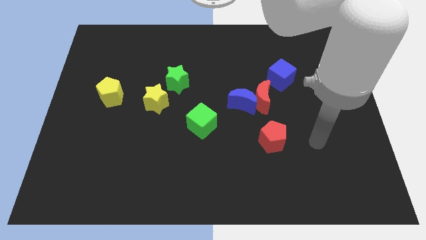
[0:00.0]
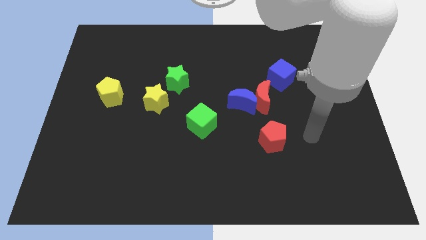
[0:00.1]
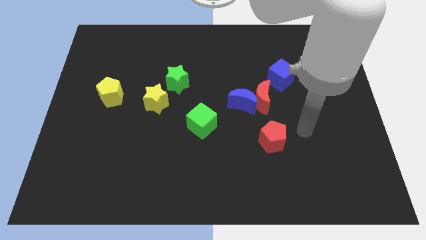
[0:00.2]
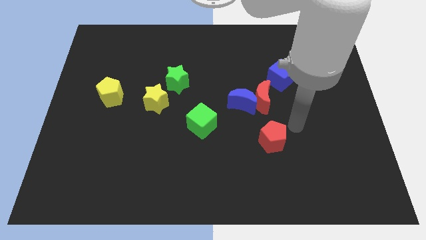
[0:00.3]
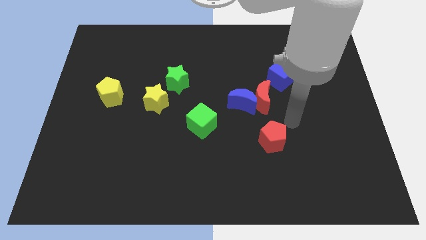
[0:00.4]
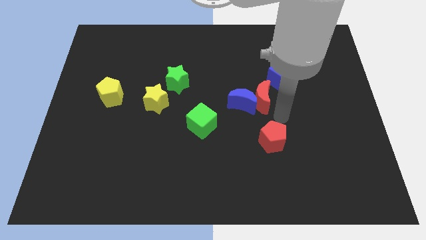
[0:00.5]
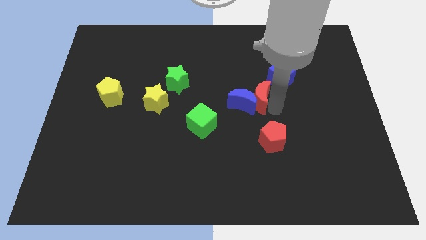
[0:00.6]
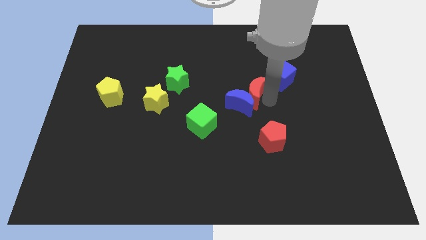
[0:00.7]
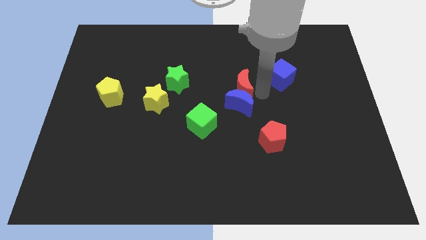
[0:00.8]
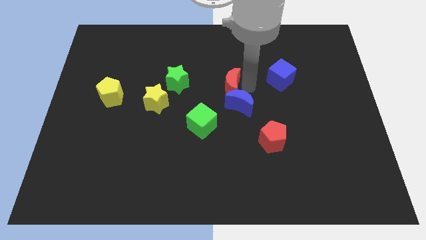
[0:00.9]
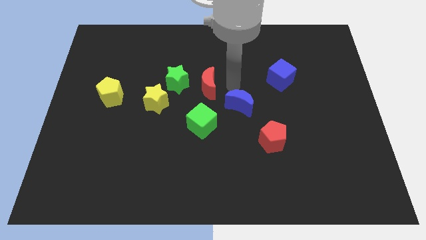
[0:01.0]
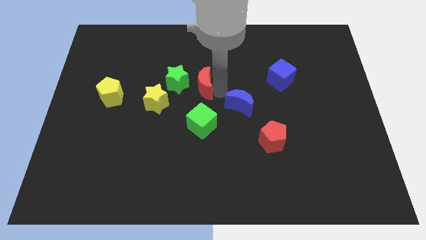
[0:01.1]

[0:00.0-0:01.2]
separate the blue moon from the red moon

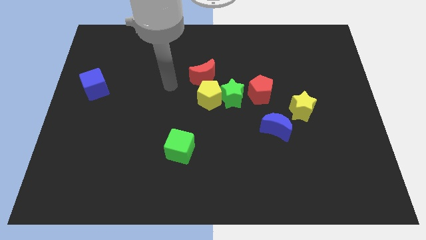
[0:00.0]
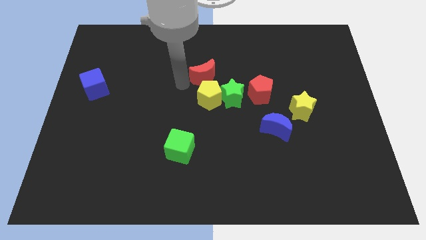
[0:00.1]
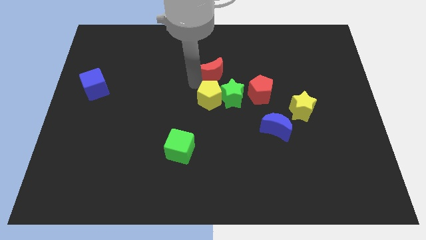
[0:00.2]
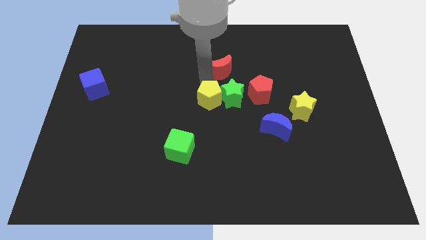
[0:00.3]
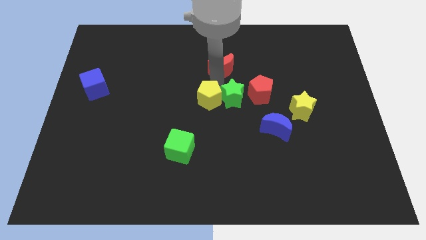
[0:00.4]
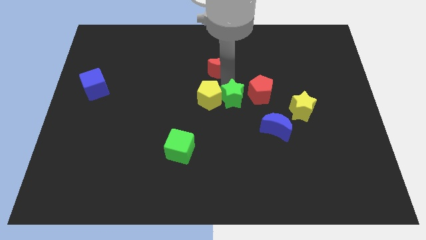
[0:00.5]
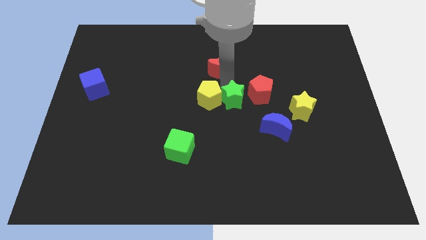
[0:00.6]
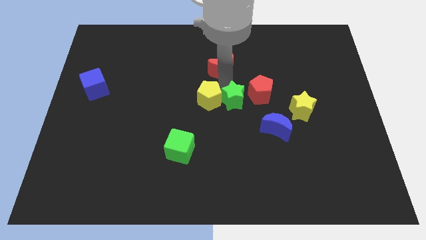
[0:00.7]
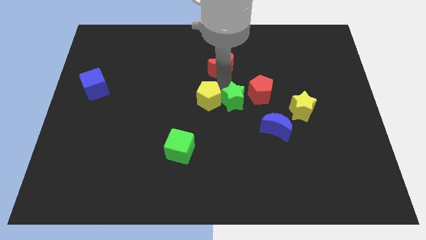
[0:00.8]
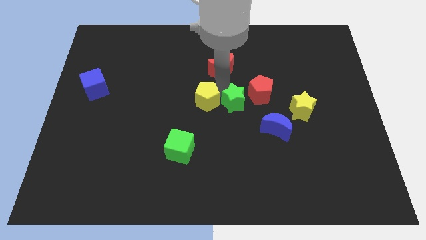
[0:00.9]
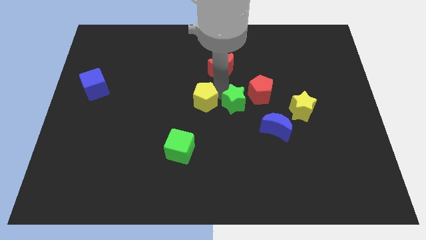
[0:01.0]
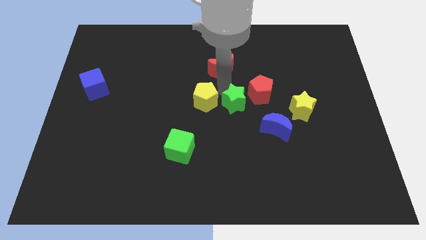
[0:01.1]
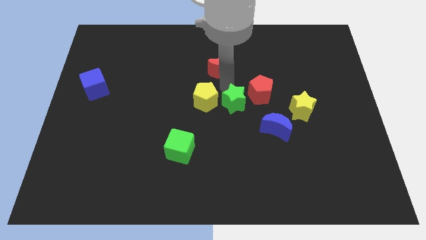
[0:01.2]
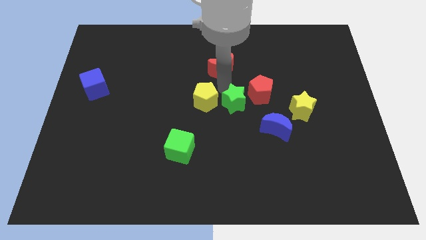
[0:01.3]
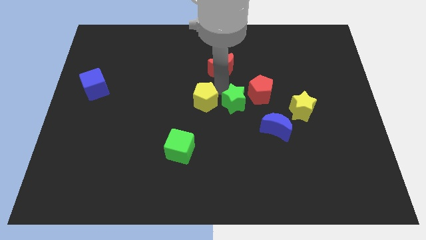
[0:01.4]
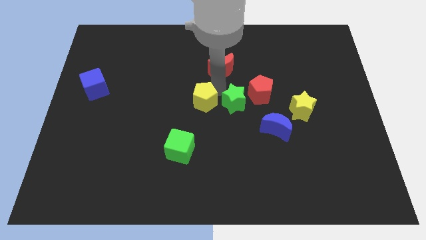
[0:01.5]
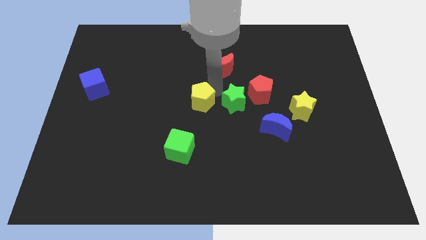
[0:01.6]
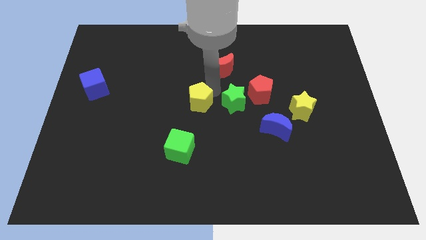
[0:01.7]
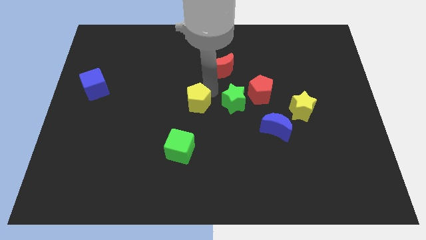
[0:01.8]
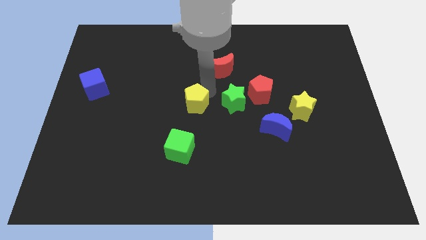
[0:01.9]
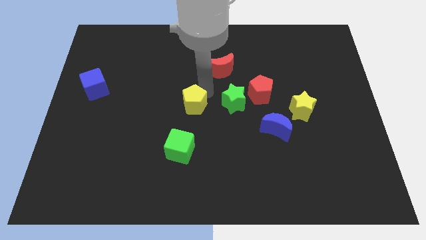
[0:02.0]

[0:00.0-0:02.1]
separate the yellow pentagon from the green star and red moon

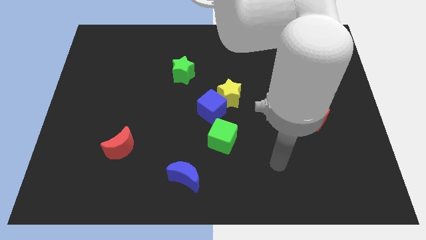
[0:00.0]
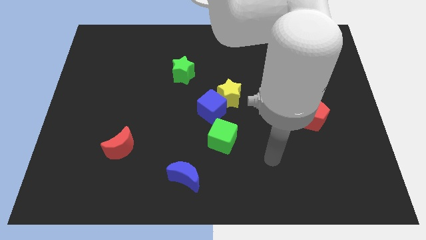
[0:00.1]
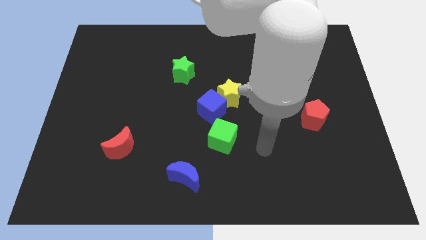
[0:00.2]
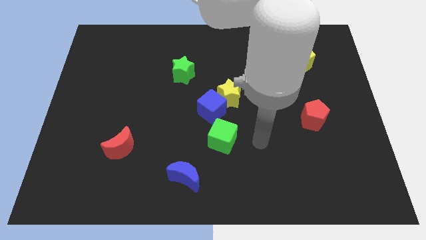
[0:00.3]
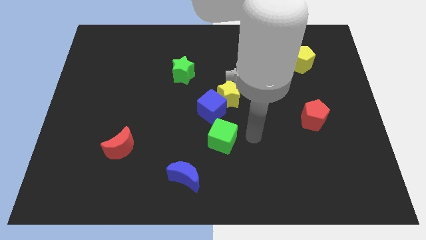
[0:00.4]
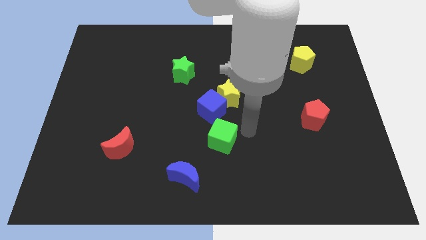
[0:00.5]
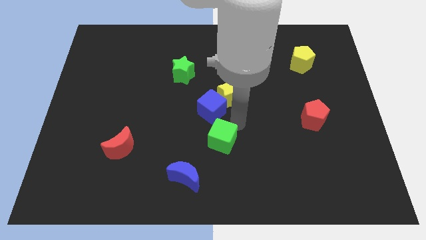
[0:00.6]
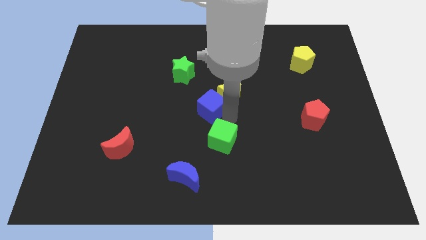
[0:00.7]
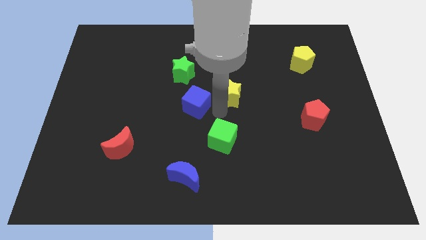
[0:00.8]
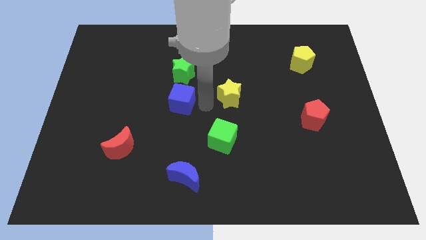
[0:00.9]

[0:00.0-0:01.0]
move the yellow star away from the blue cube

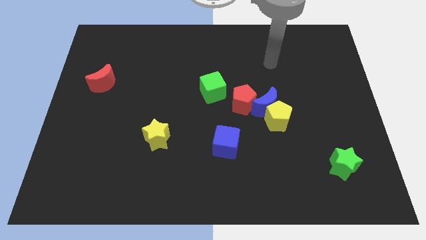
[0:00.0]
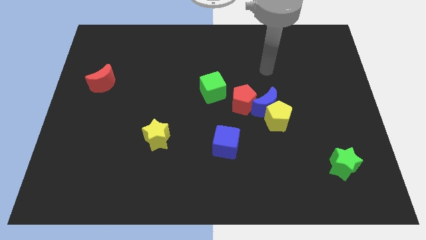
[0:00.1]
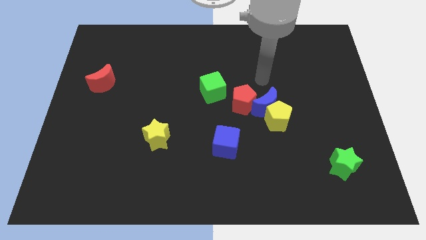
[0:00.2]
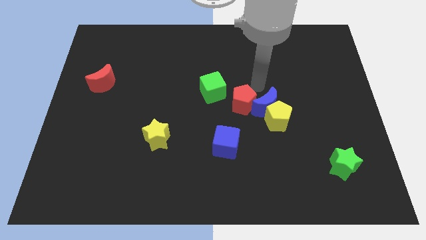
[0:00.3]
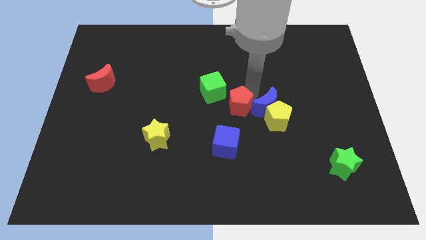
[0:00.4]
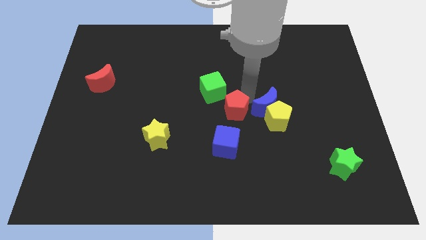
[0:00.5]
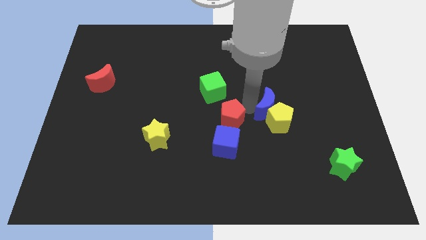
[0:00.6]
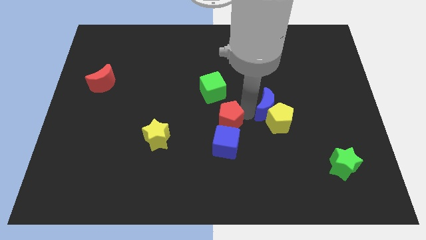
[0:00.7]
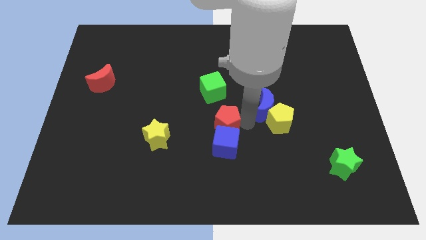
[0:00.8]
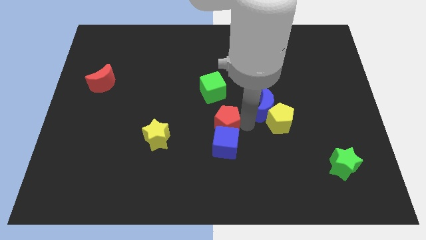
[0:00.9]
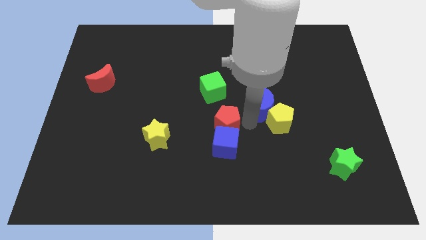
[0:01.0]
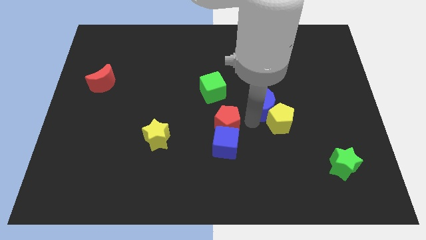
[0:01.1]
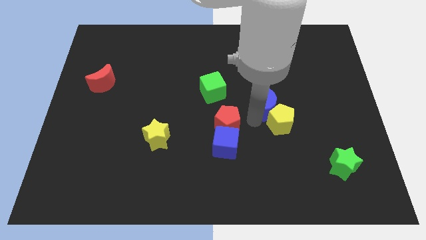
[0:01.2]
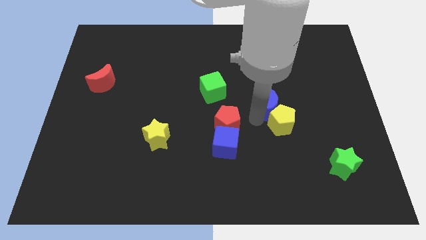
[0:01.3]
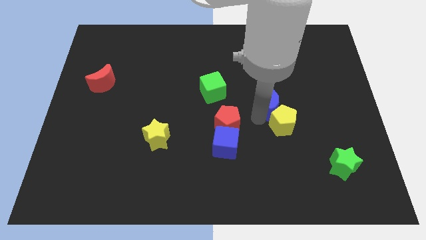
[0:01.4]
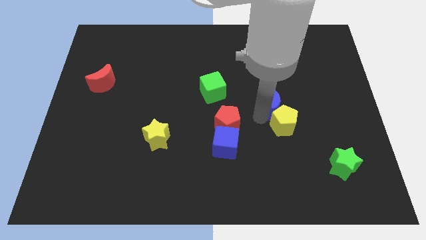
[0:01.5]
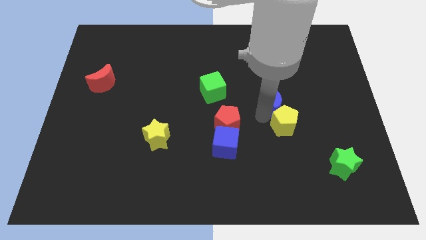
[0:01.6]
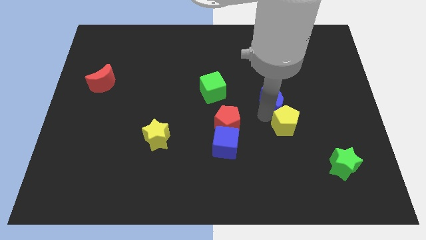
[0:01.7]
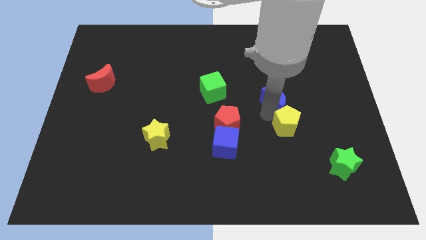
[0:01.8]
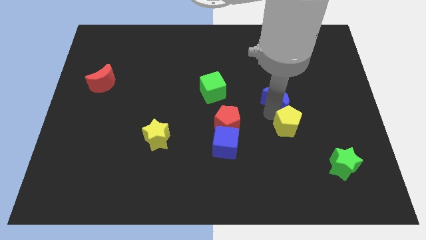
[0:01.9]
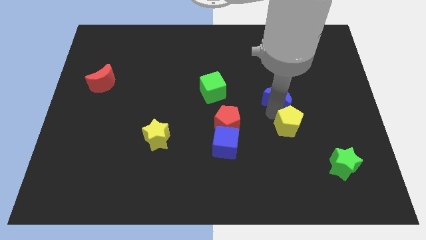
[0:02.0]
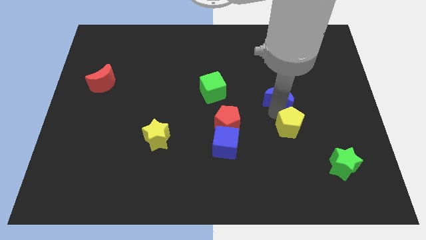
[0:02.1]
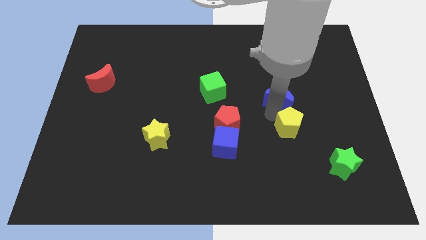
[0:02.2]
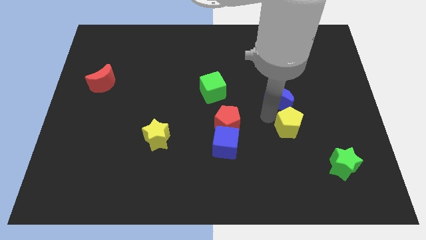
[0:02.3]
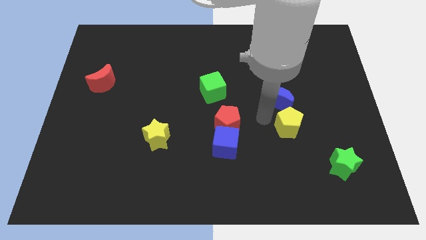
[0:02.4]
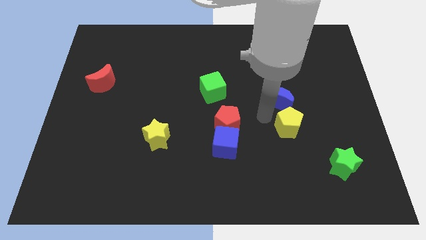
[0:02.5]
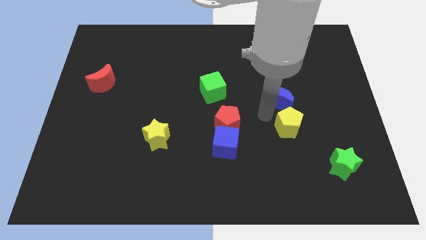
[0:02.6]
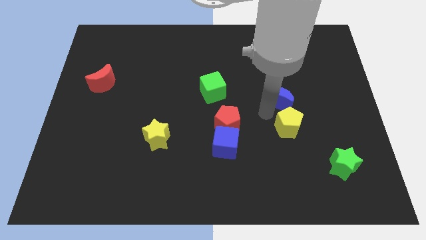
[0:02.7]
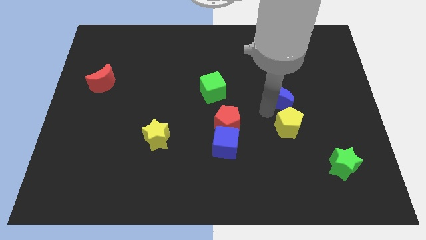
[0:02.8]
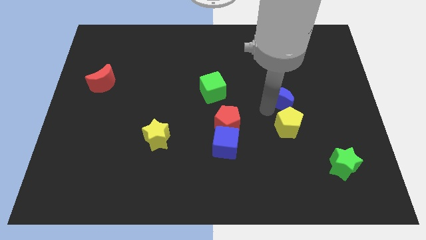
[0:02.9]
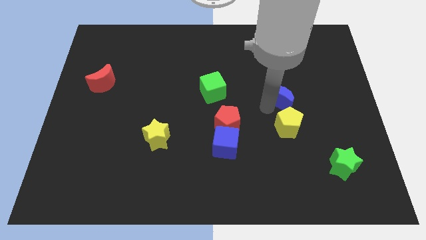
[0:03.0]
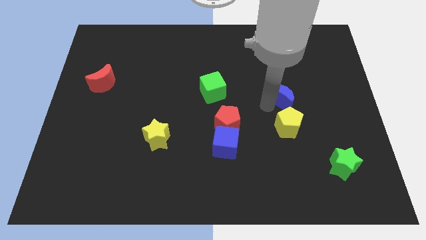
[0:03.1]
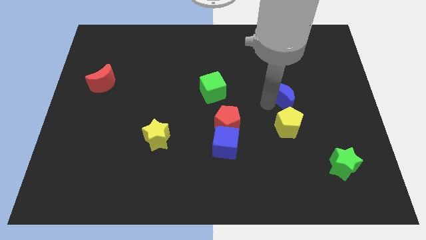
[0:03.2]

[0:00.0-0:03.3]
move the blue moon away from the yellow pentagon and red pentagon

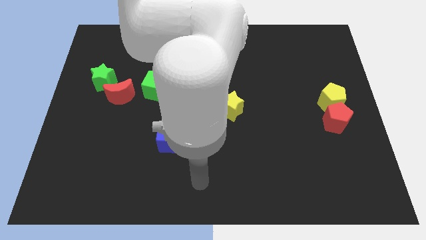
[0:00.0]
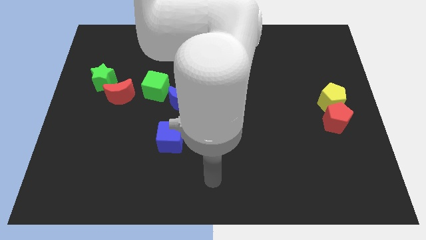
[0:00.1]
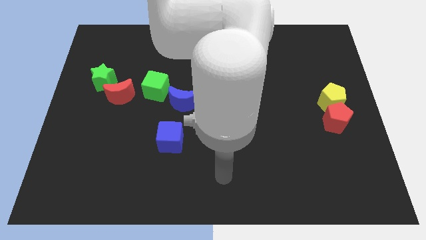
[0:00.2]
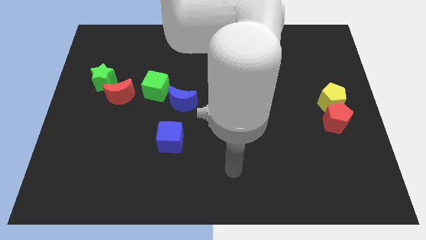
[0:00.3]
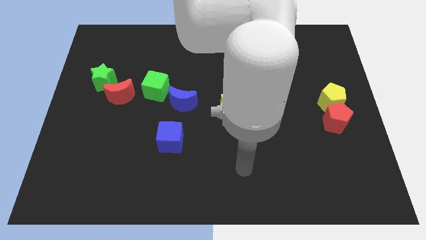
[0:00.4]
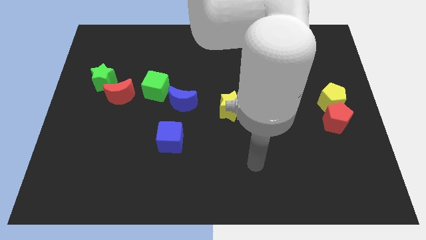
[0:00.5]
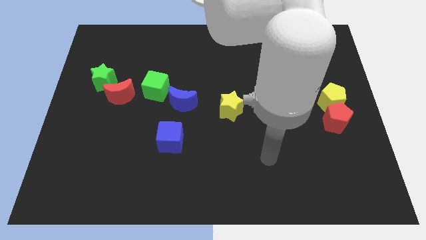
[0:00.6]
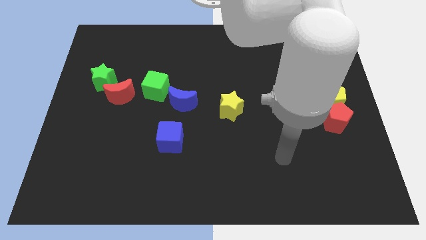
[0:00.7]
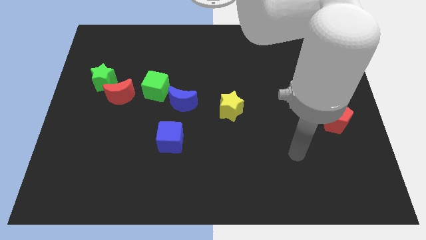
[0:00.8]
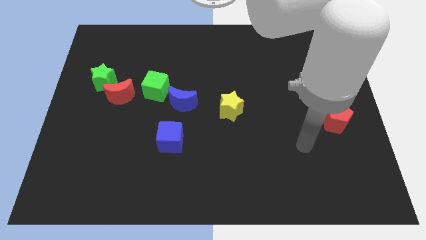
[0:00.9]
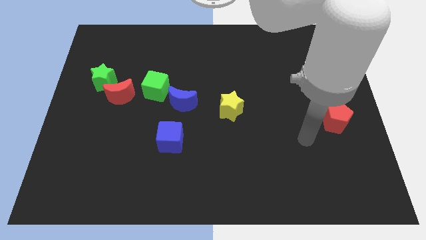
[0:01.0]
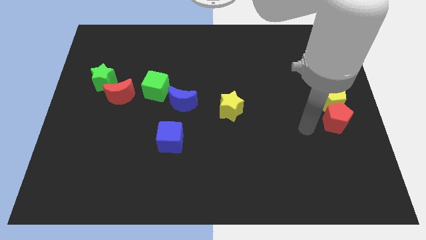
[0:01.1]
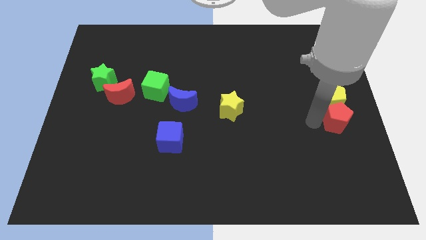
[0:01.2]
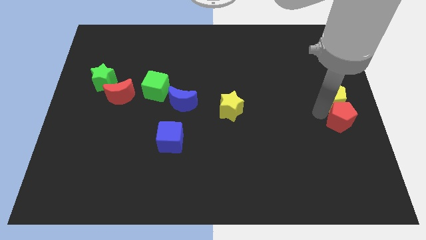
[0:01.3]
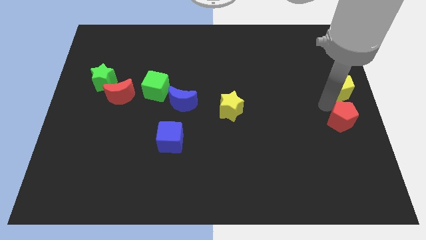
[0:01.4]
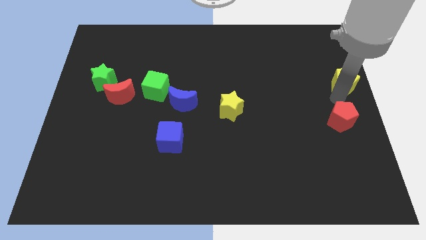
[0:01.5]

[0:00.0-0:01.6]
pull the red pentagon apart from the yellow pentagon

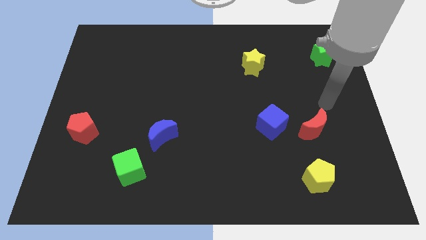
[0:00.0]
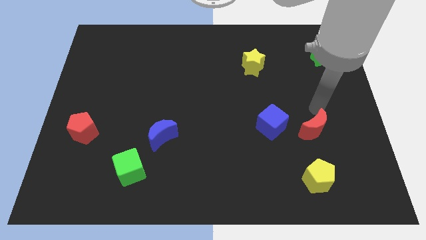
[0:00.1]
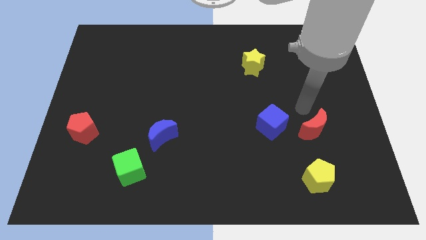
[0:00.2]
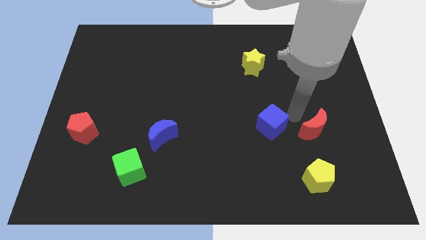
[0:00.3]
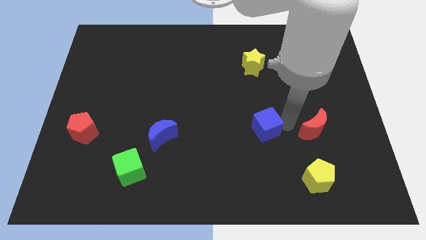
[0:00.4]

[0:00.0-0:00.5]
move the red moon away from the blue cube
